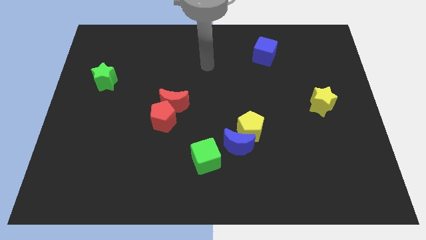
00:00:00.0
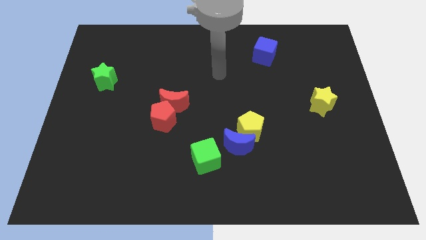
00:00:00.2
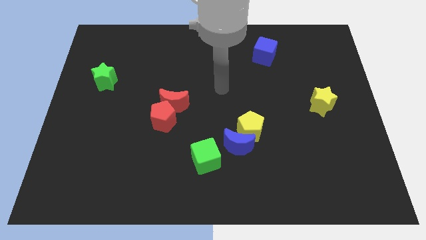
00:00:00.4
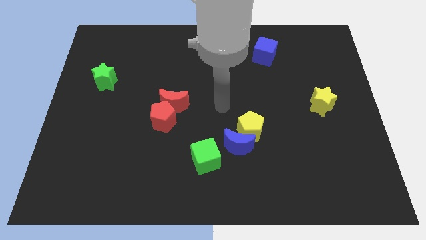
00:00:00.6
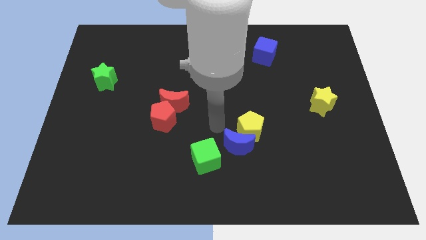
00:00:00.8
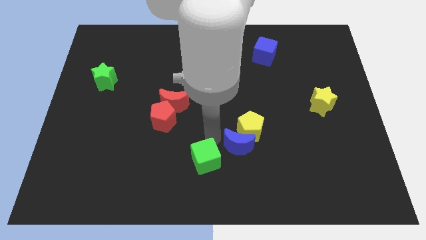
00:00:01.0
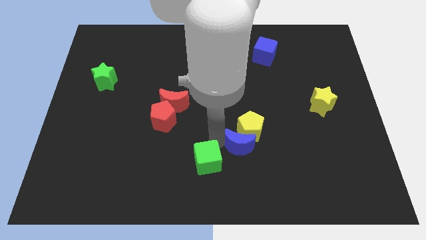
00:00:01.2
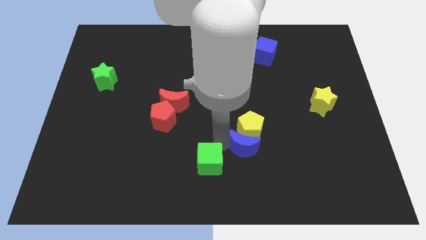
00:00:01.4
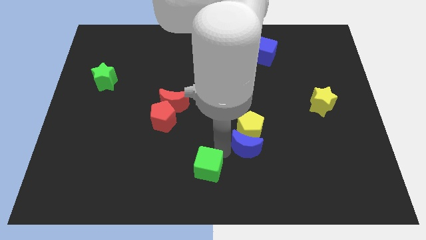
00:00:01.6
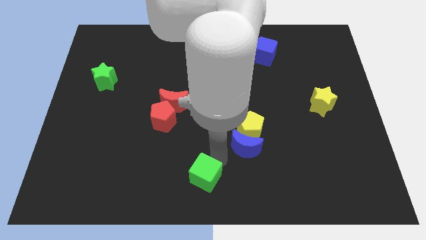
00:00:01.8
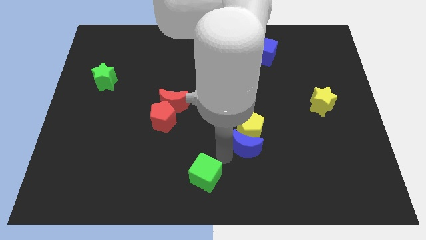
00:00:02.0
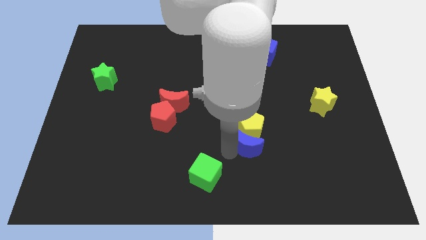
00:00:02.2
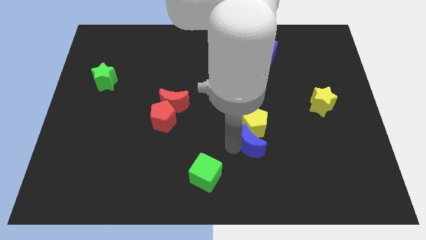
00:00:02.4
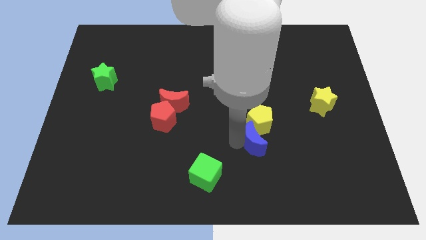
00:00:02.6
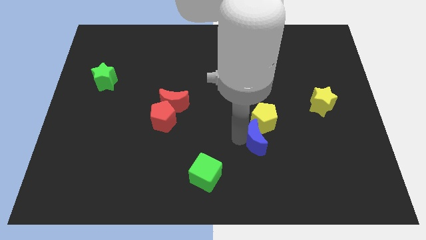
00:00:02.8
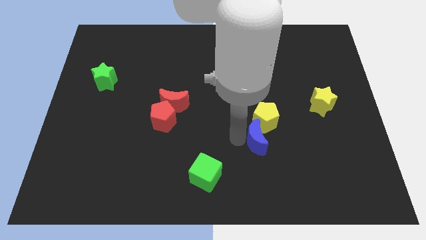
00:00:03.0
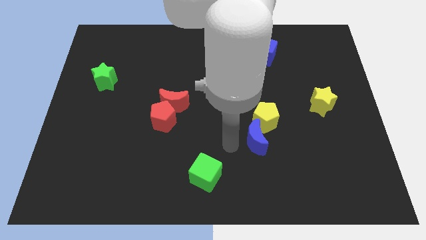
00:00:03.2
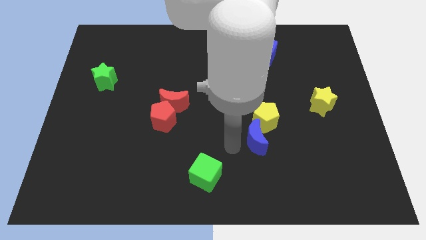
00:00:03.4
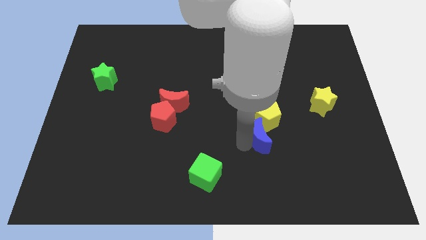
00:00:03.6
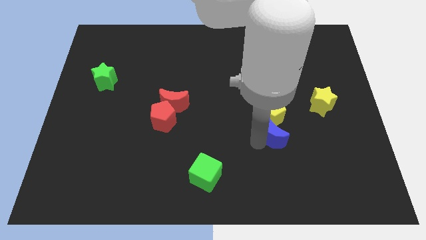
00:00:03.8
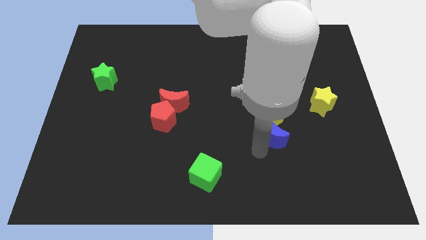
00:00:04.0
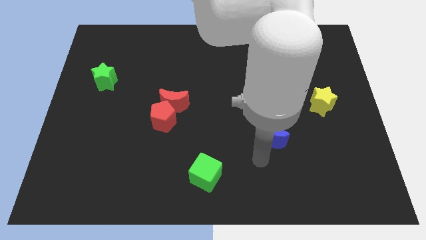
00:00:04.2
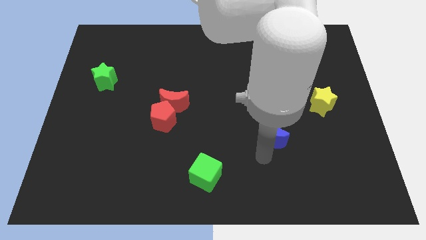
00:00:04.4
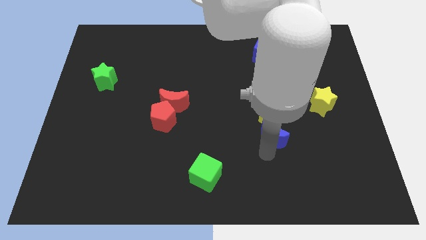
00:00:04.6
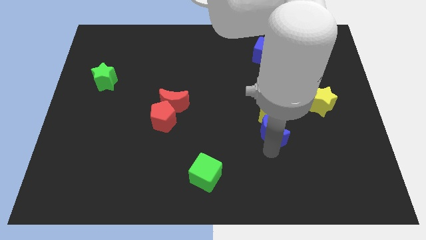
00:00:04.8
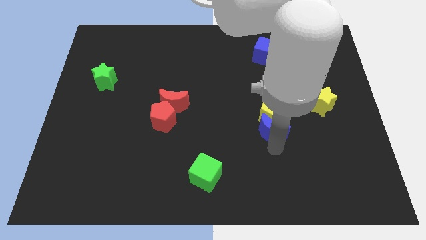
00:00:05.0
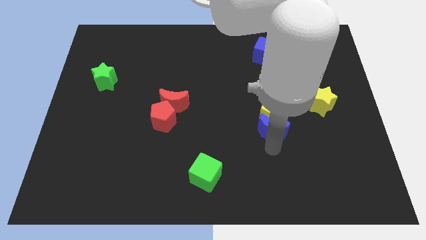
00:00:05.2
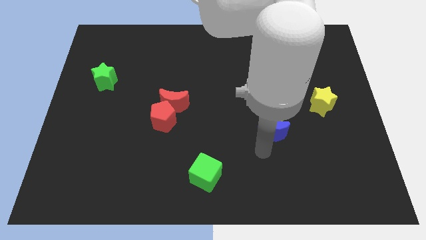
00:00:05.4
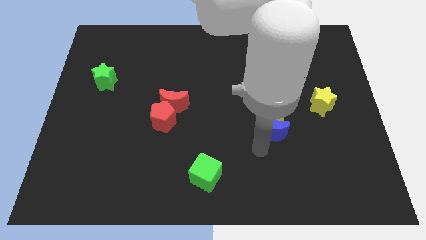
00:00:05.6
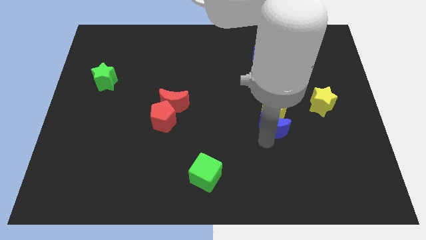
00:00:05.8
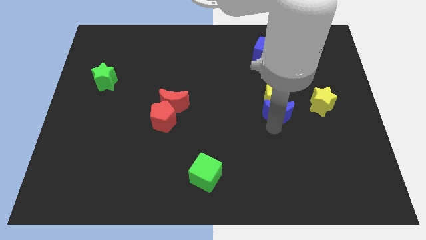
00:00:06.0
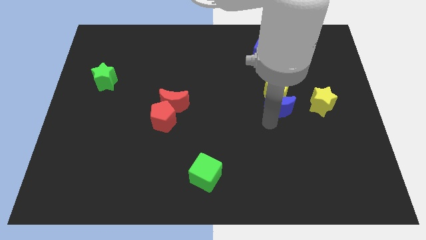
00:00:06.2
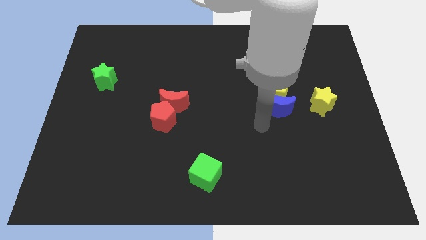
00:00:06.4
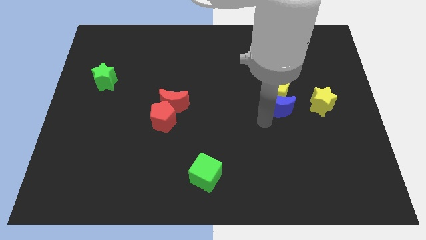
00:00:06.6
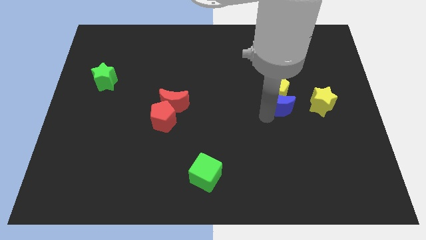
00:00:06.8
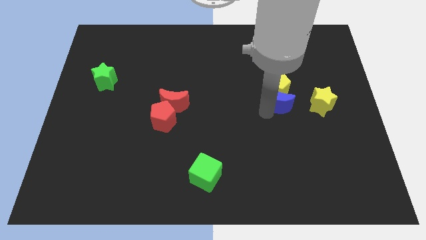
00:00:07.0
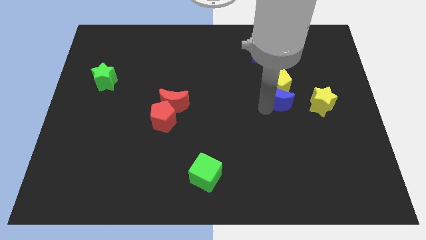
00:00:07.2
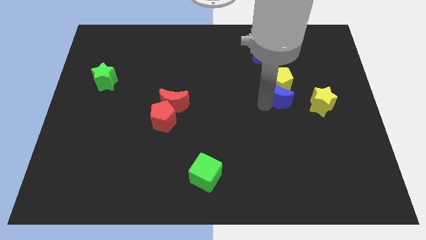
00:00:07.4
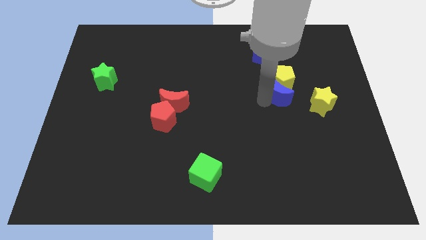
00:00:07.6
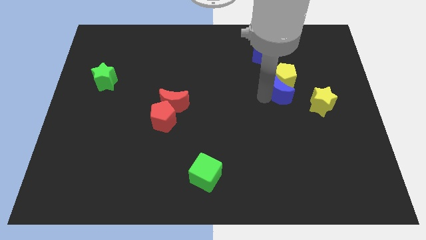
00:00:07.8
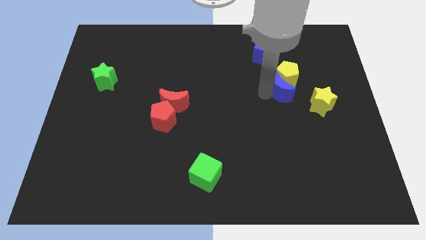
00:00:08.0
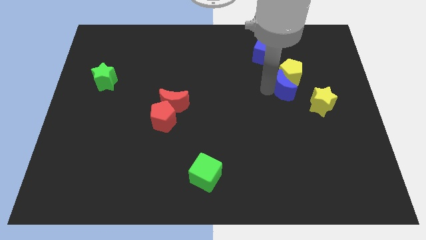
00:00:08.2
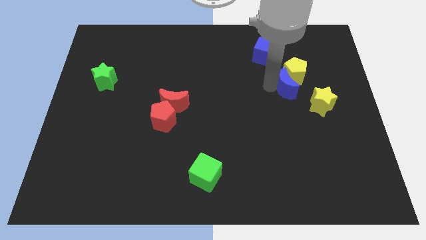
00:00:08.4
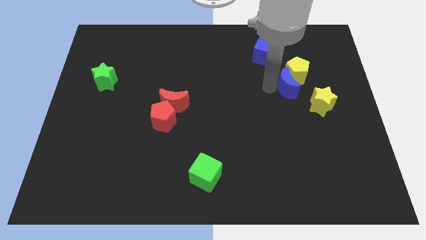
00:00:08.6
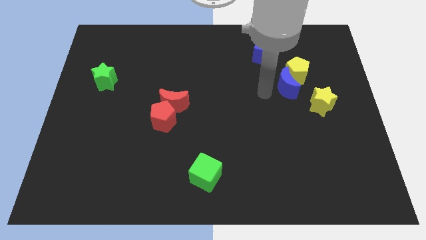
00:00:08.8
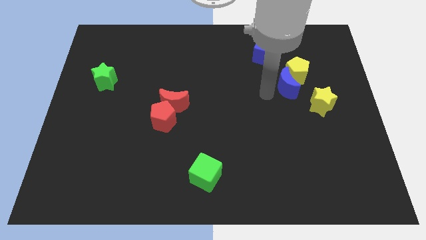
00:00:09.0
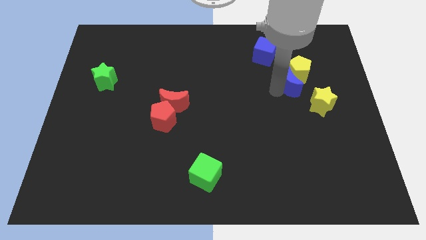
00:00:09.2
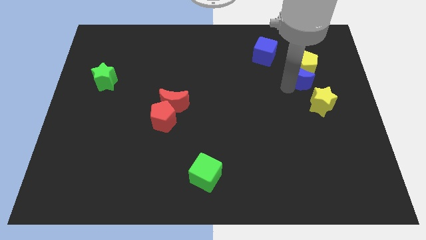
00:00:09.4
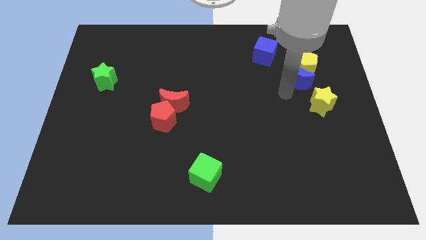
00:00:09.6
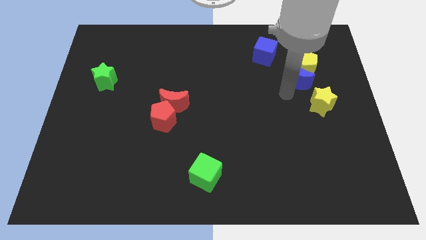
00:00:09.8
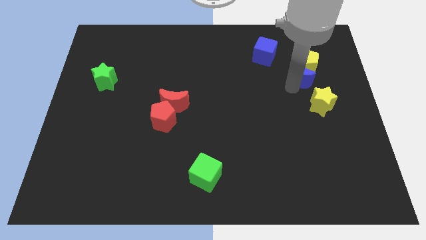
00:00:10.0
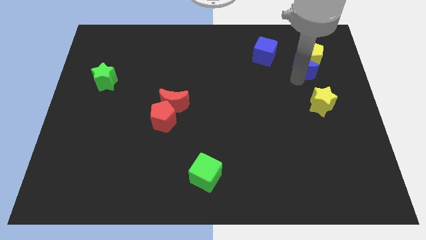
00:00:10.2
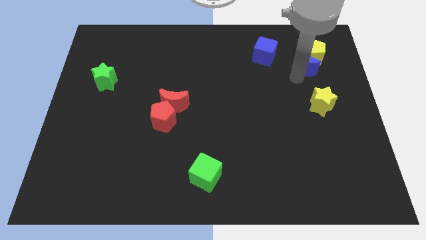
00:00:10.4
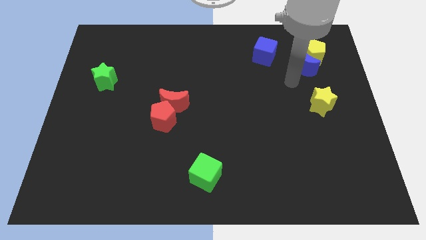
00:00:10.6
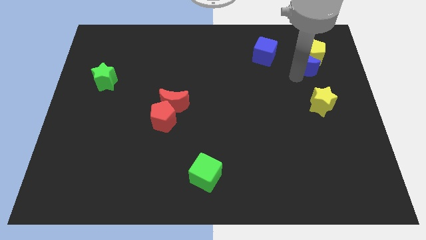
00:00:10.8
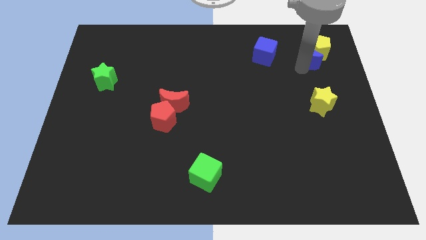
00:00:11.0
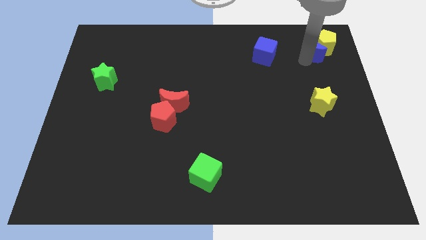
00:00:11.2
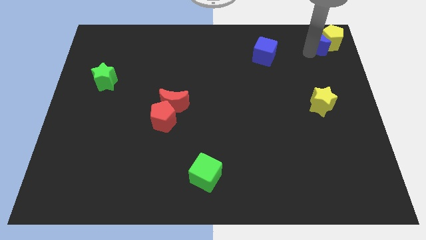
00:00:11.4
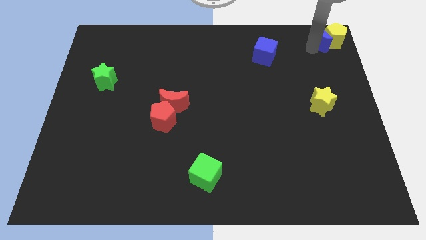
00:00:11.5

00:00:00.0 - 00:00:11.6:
move the blue moon to the top right of the board

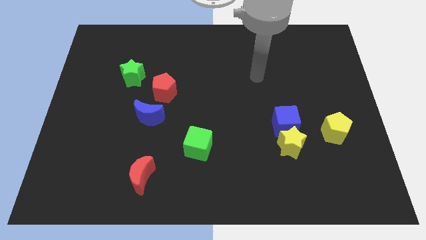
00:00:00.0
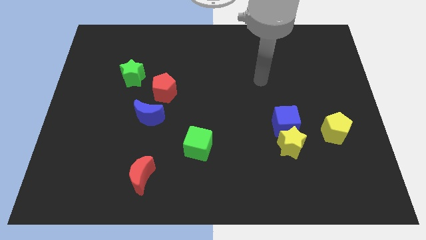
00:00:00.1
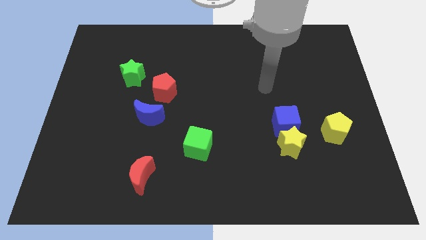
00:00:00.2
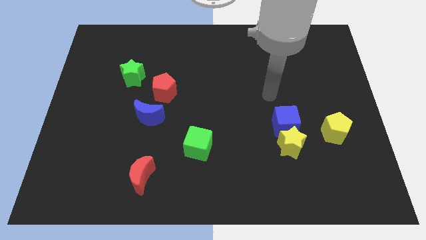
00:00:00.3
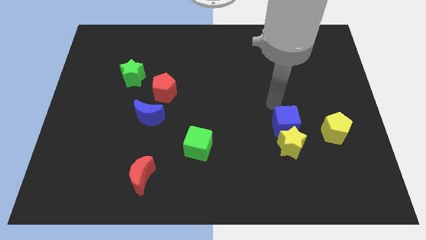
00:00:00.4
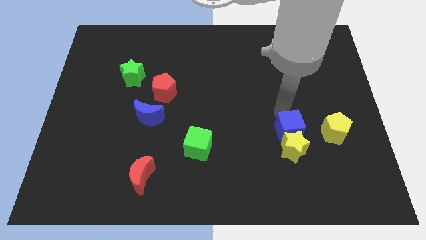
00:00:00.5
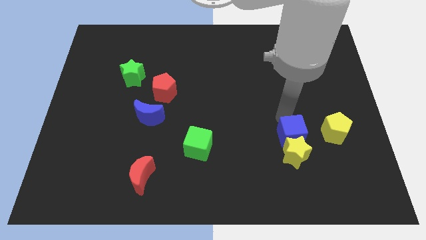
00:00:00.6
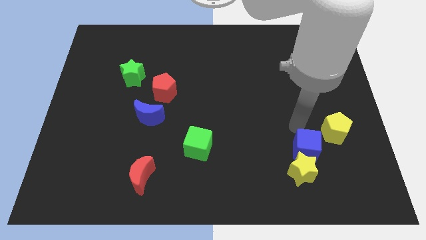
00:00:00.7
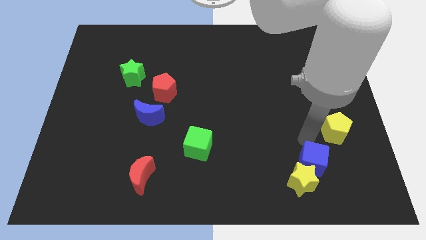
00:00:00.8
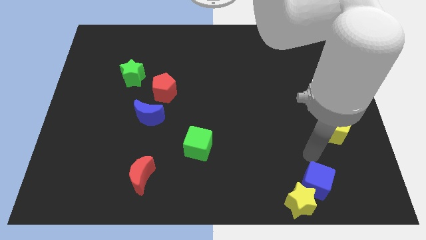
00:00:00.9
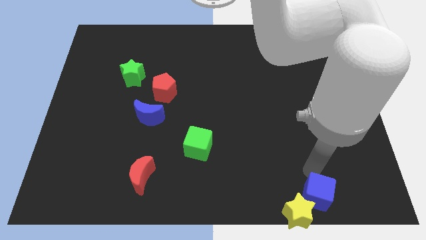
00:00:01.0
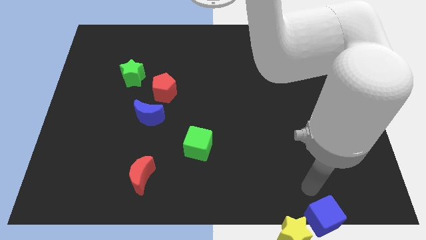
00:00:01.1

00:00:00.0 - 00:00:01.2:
slide the yellow star to the bottom side

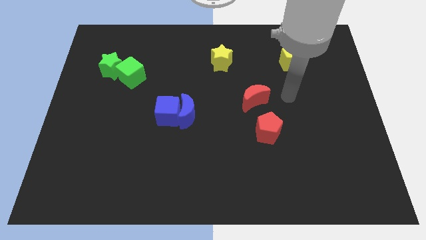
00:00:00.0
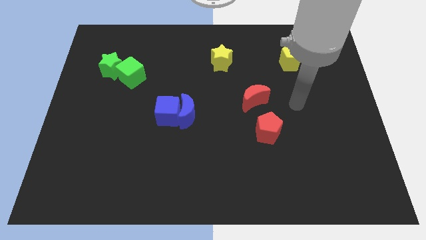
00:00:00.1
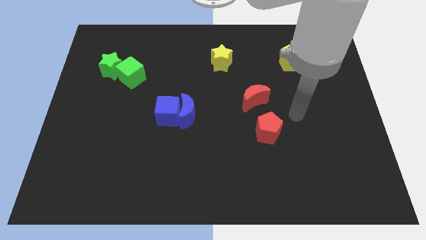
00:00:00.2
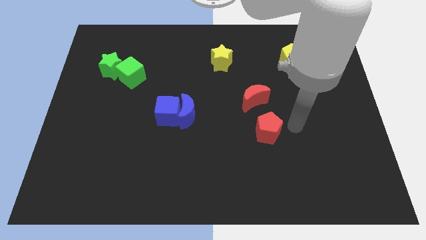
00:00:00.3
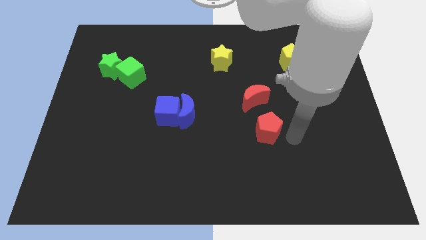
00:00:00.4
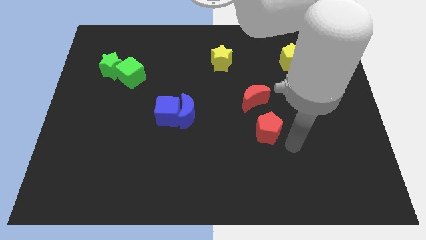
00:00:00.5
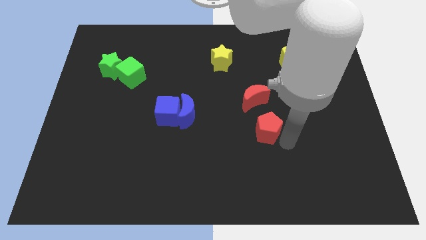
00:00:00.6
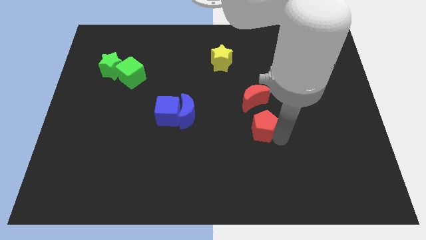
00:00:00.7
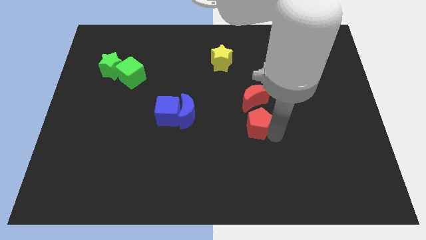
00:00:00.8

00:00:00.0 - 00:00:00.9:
move the red pentagon to the middle
